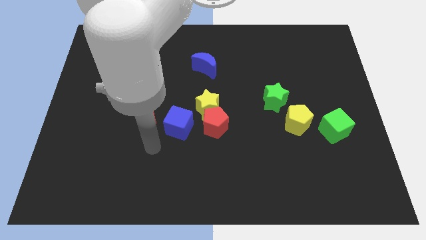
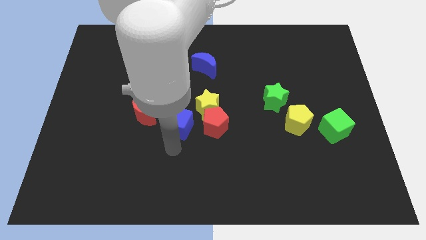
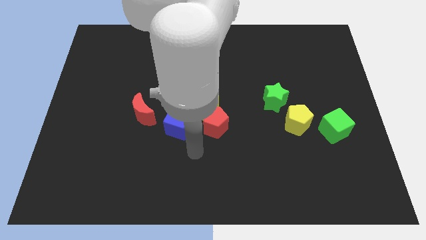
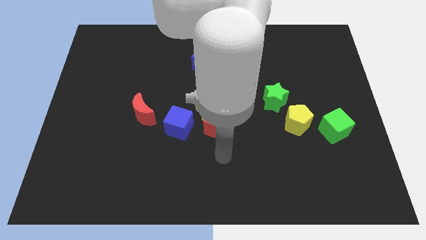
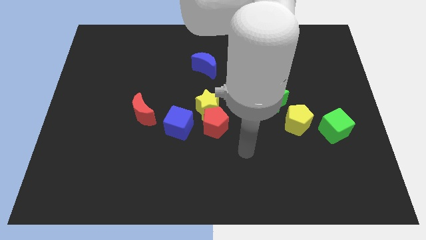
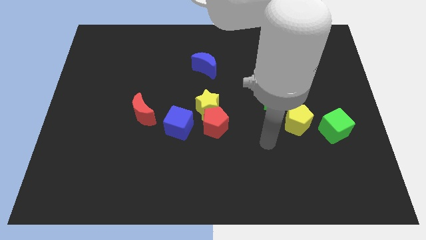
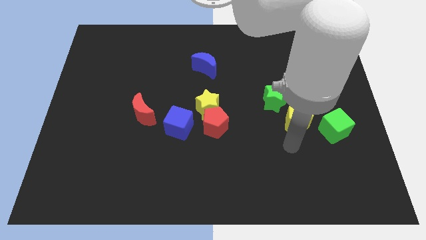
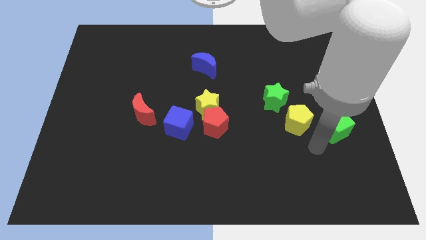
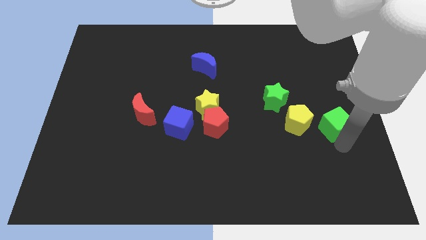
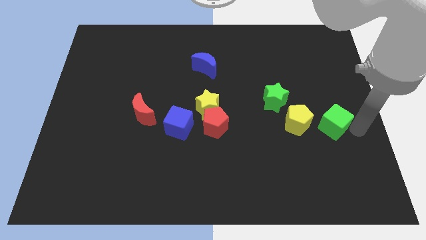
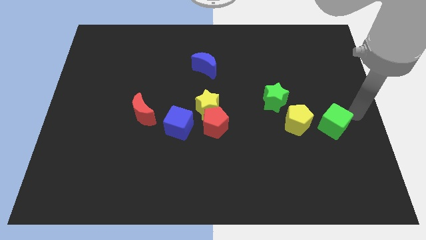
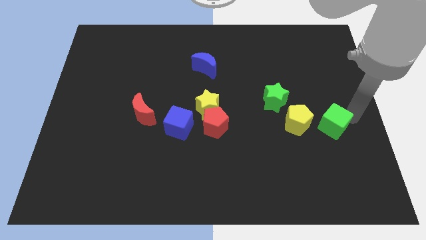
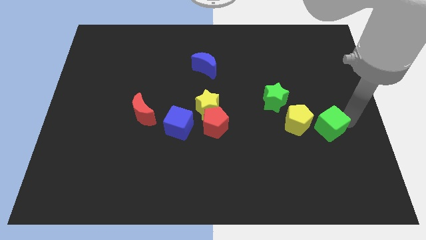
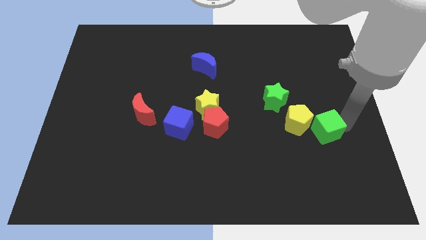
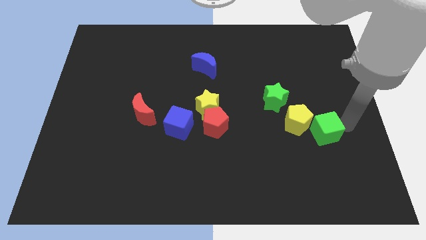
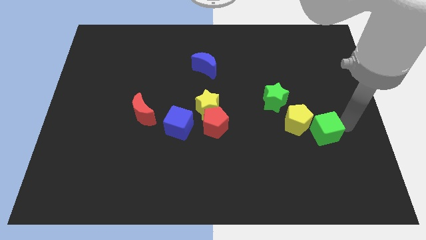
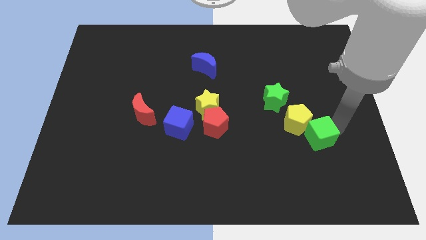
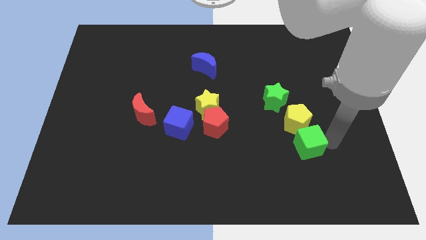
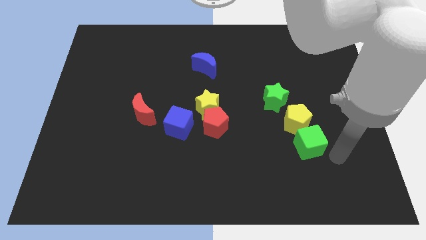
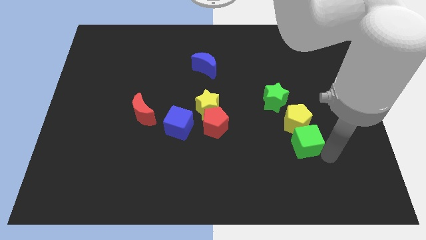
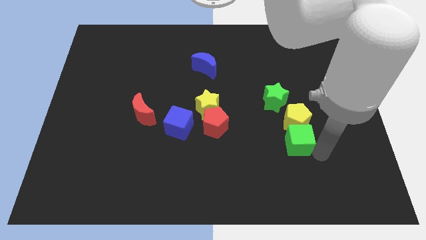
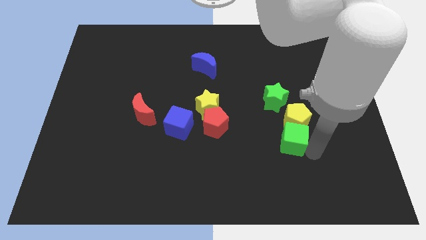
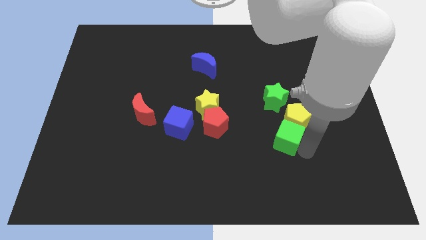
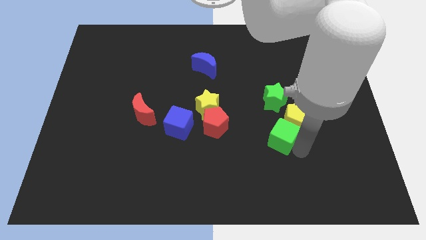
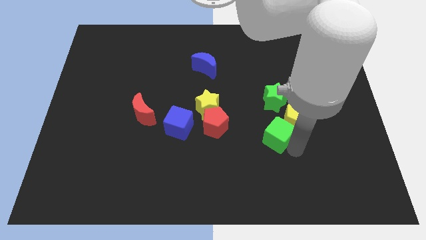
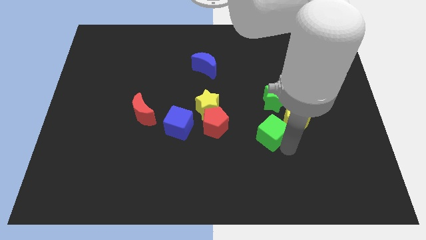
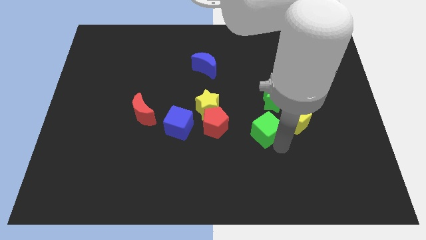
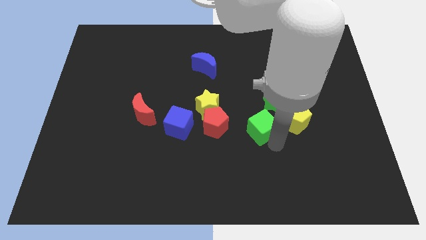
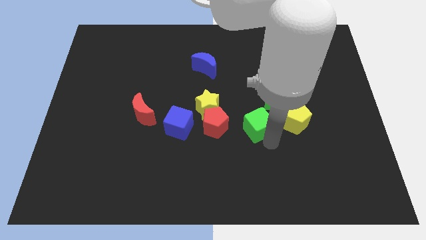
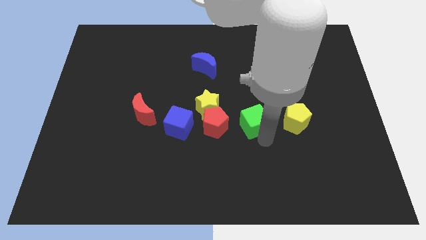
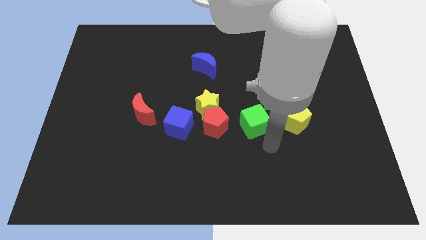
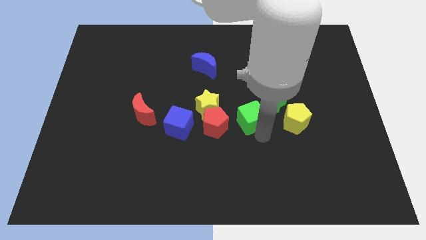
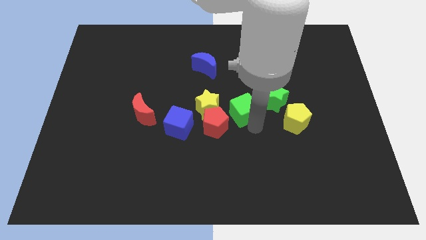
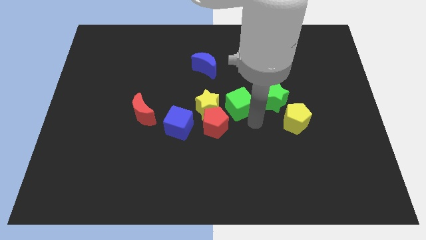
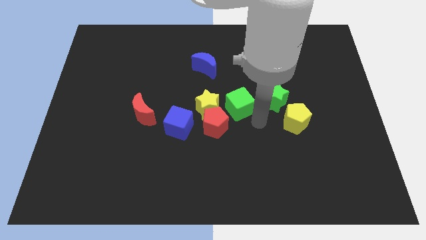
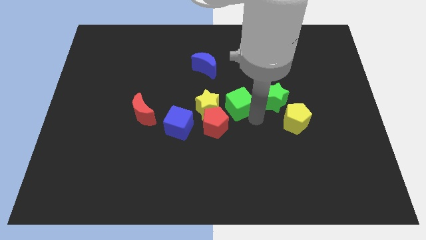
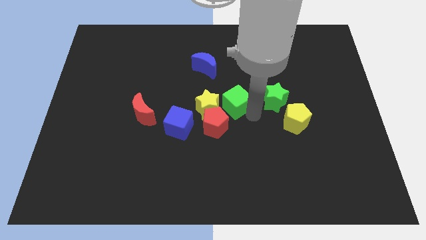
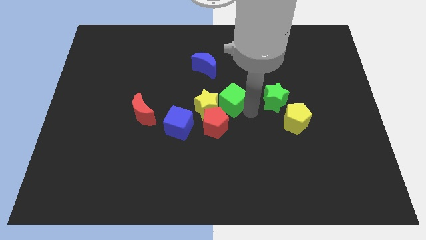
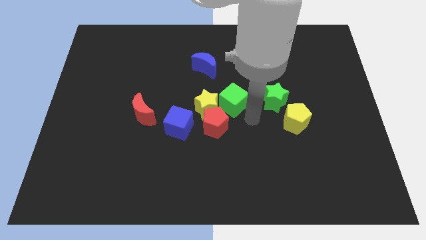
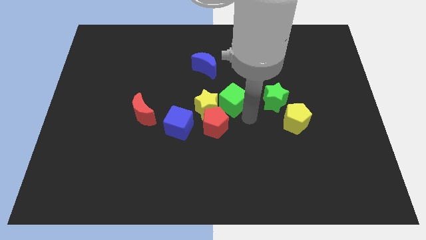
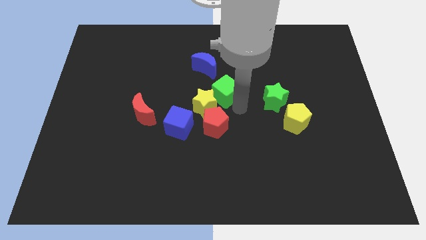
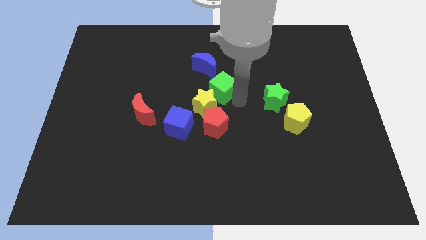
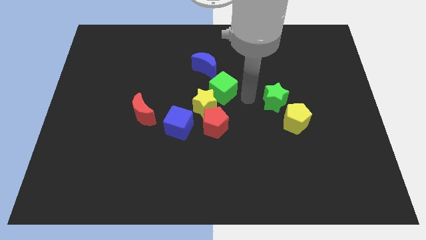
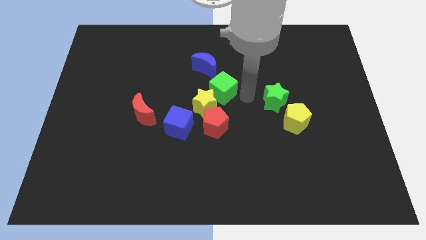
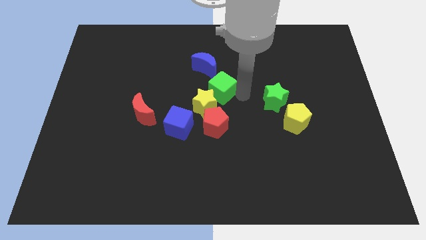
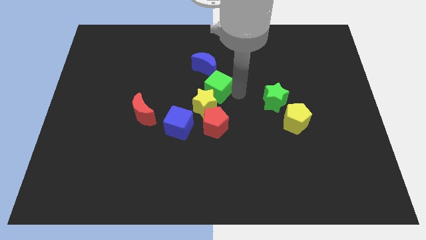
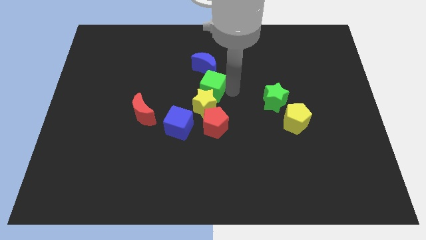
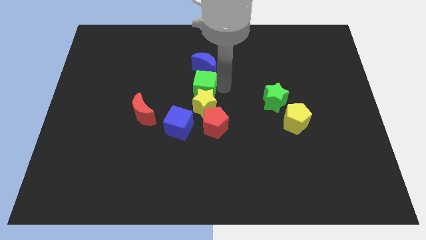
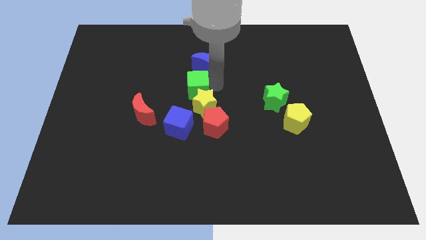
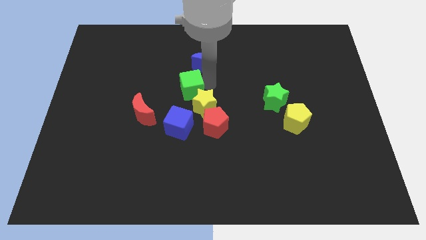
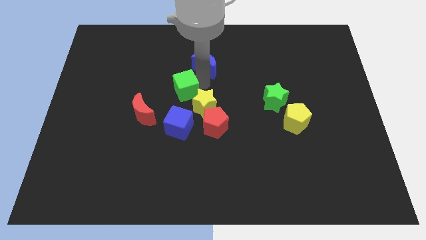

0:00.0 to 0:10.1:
put the green cube to the top right side of the red moon

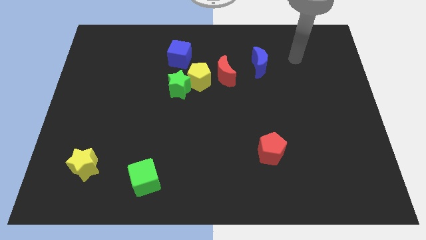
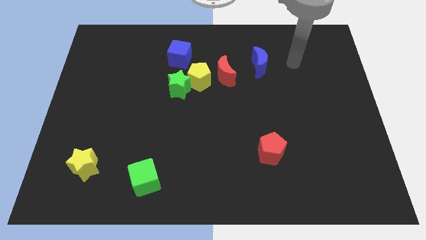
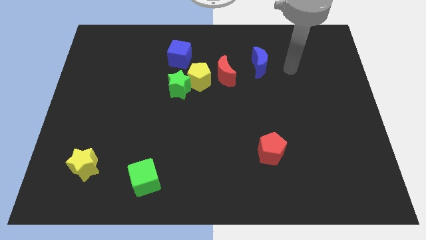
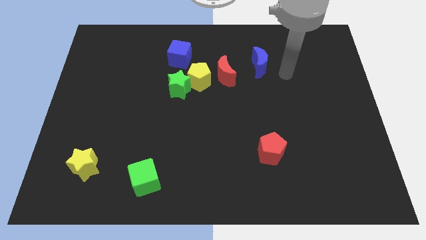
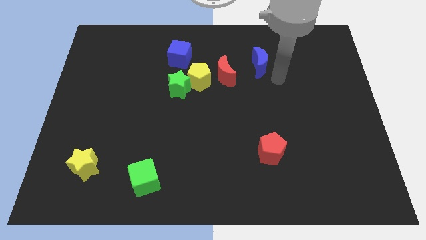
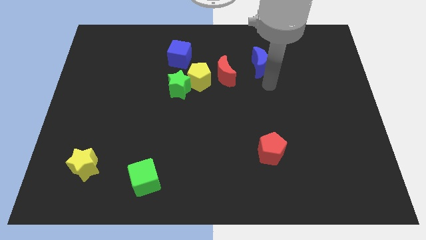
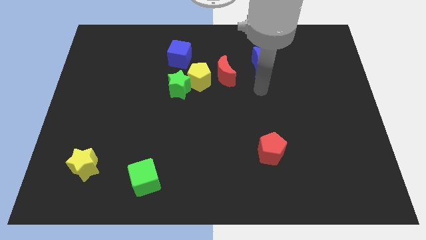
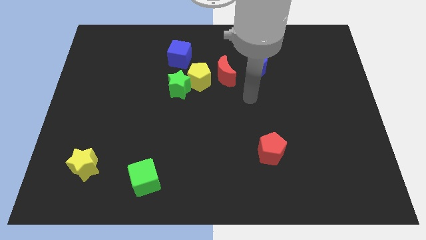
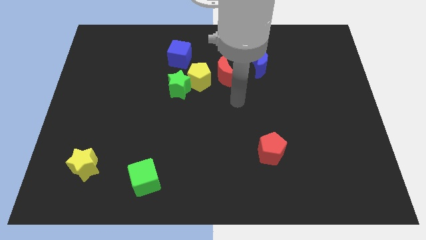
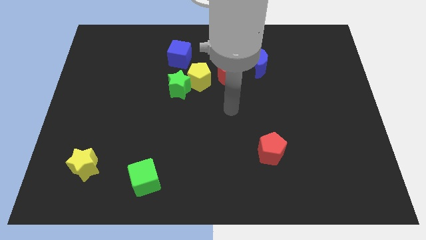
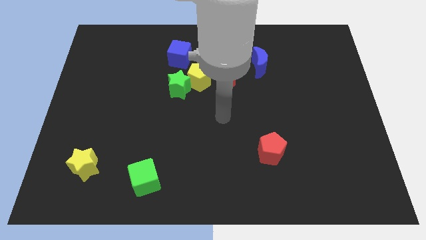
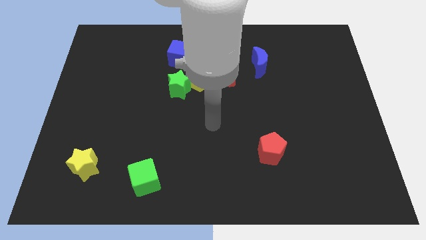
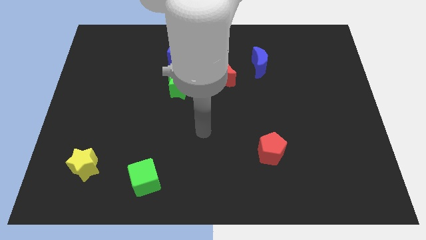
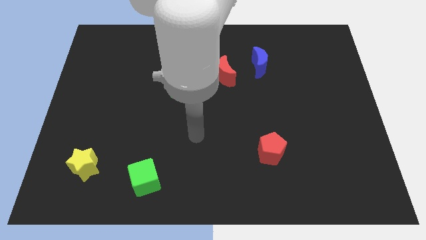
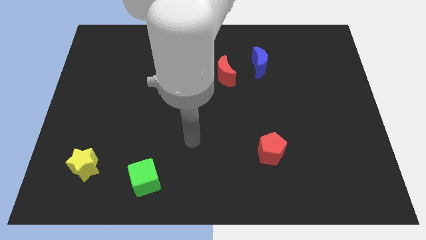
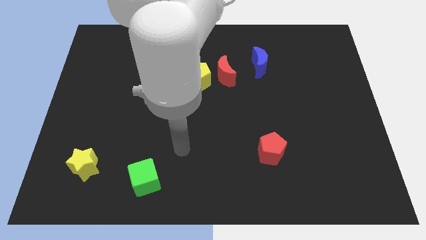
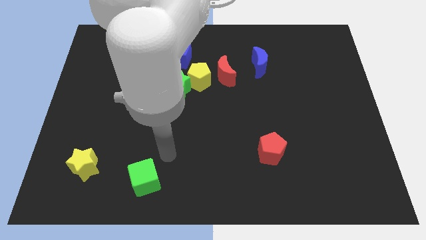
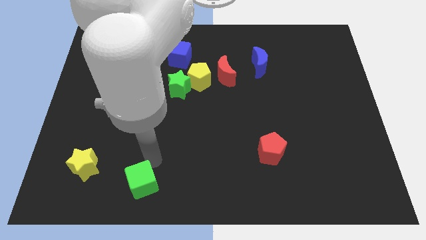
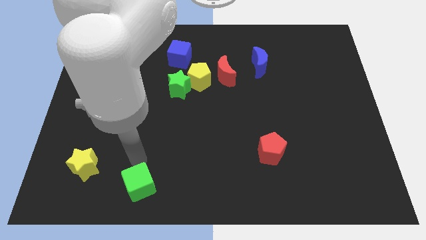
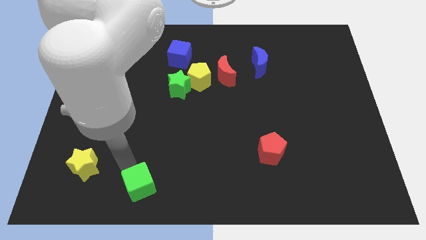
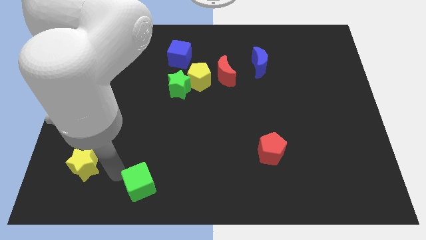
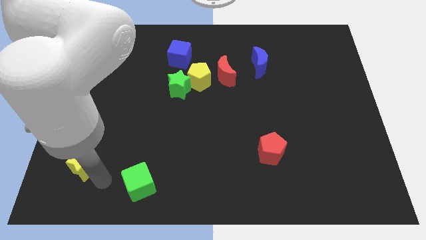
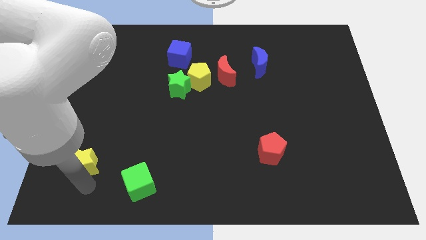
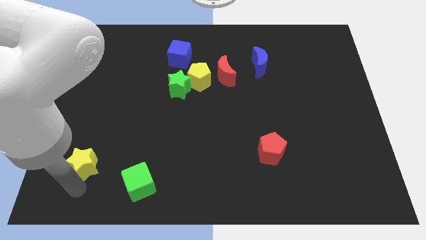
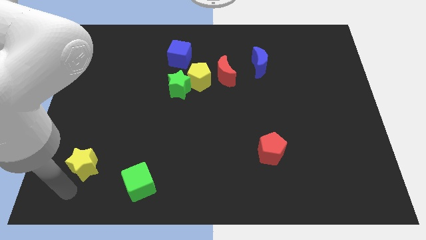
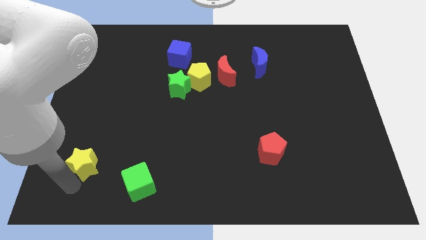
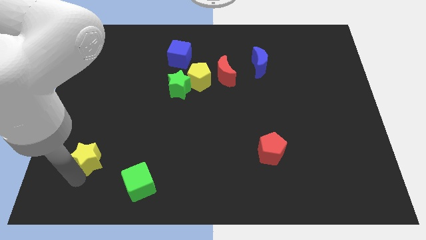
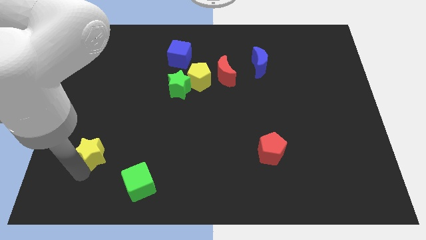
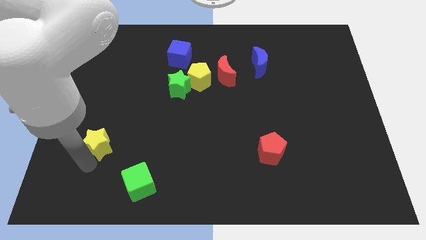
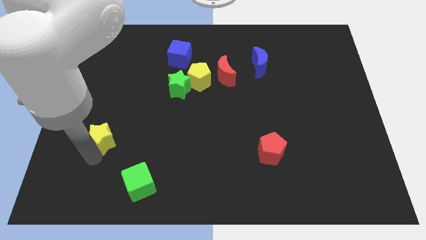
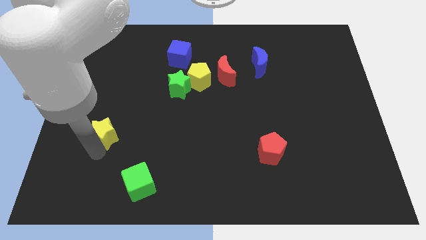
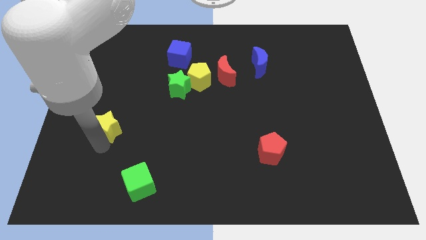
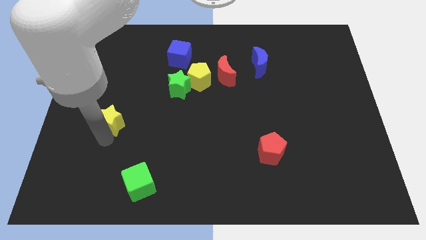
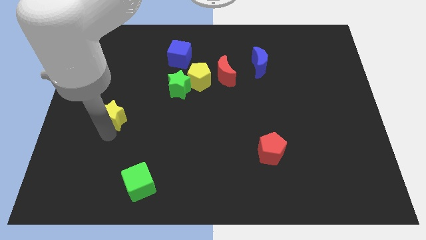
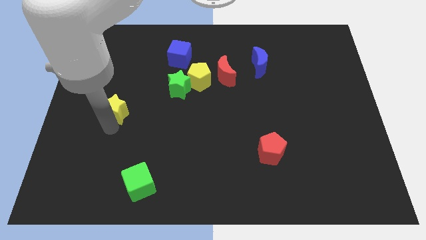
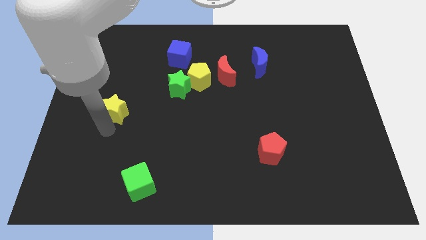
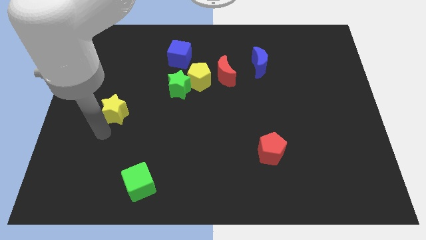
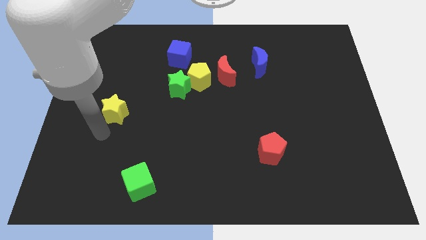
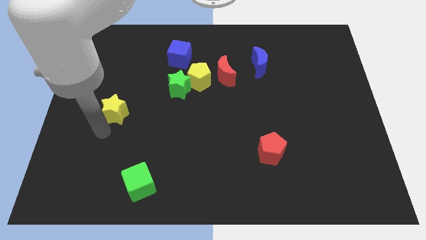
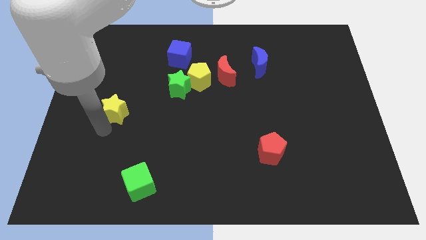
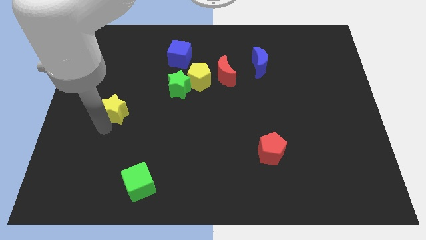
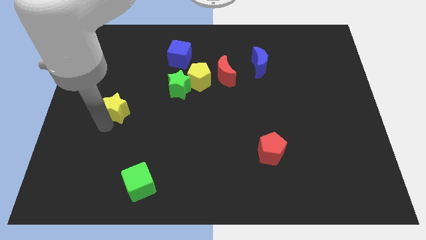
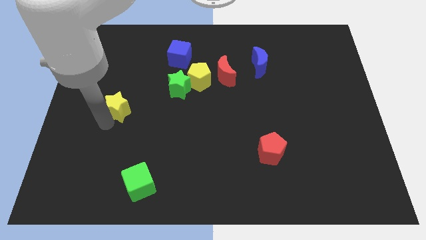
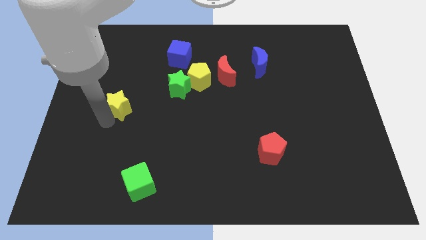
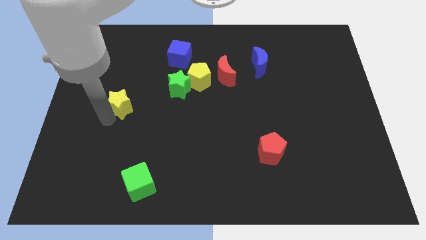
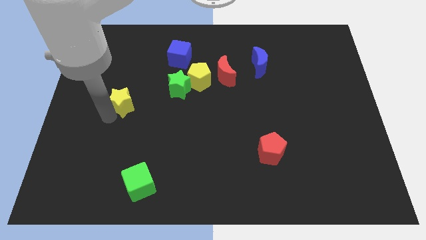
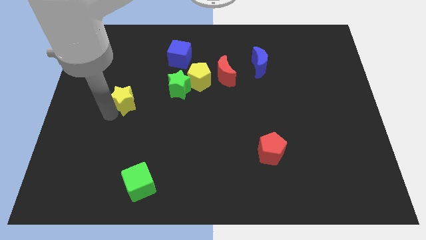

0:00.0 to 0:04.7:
push the yellow star to the left of the green star
